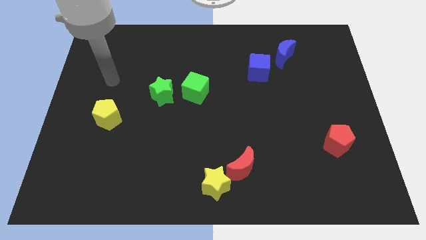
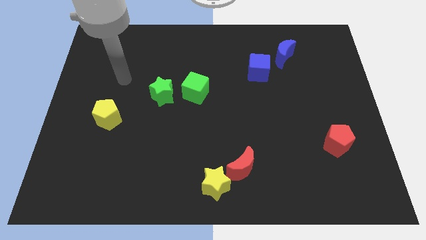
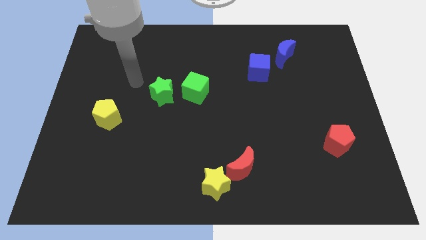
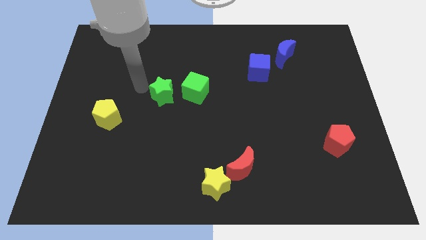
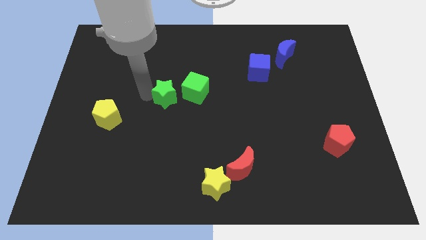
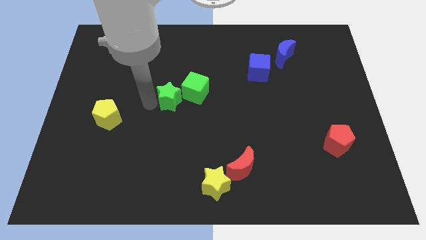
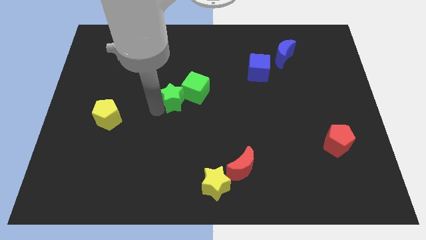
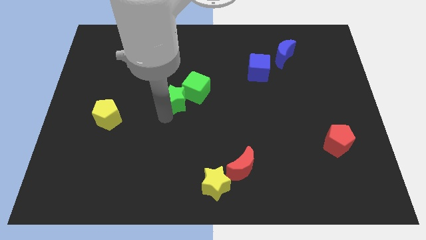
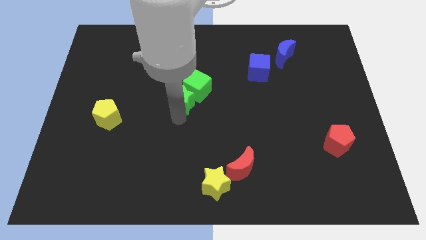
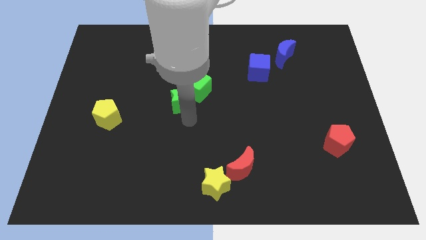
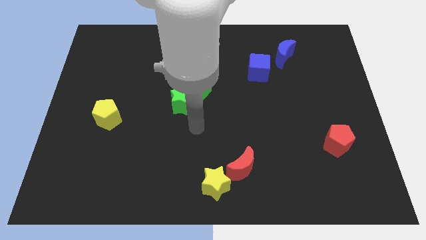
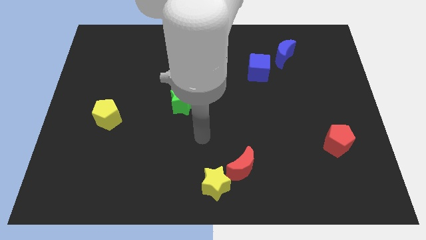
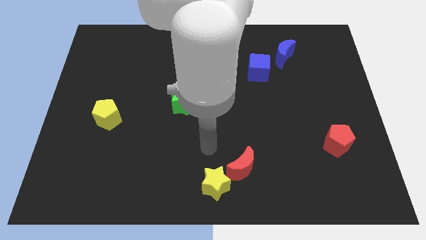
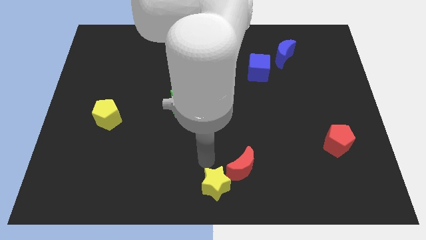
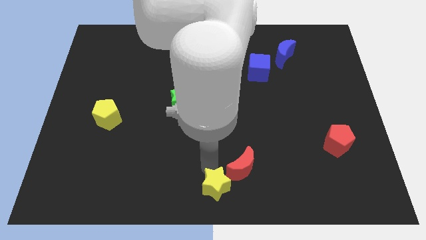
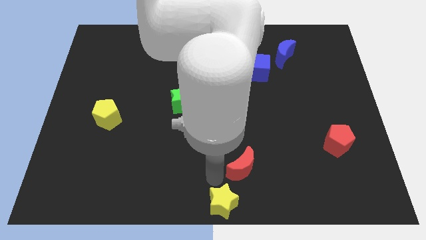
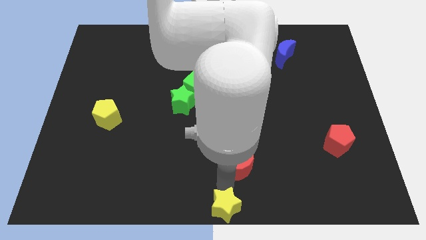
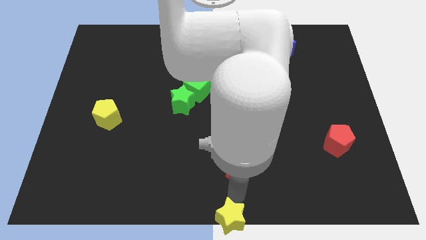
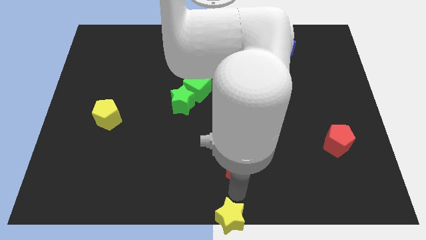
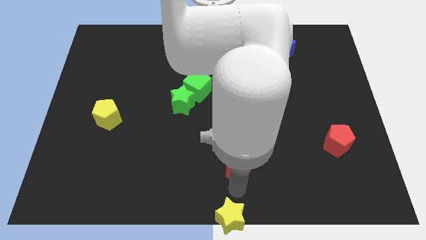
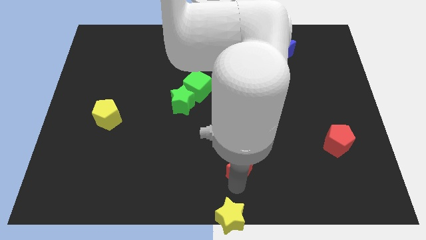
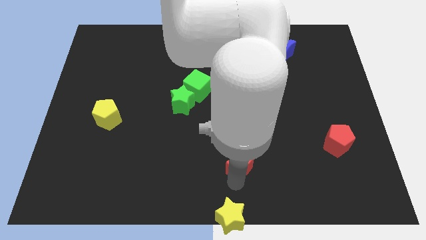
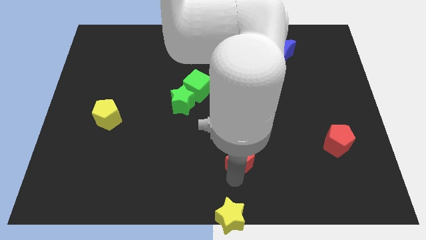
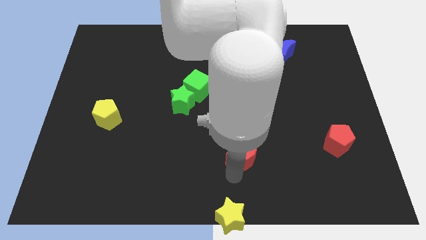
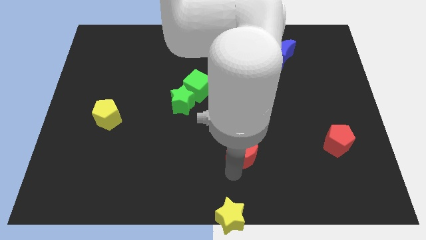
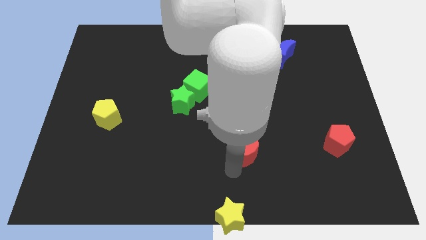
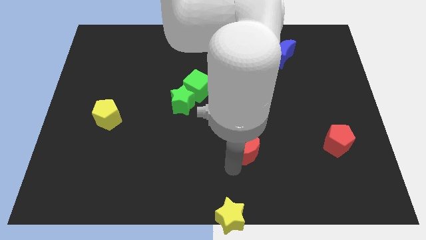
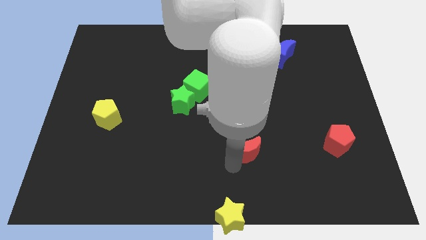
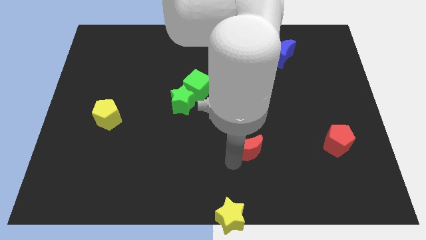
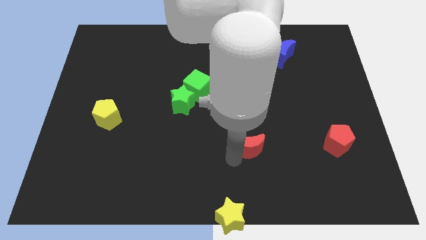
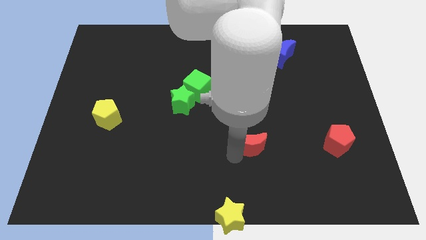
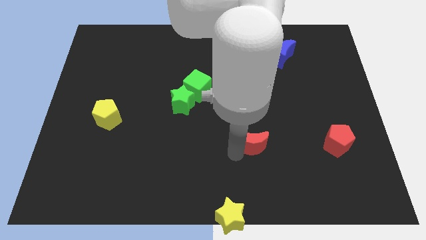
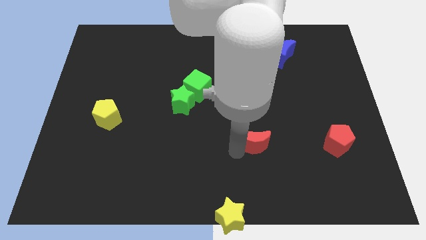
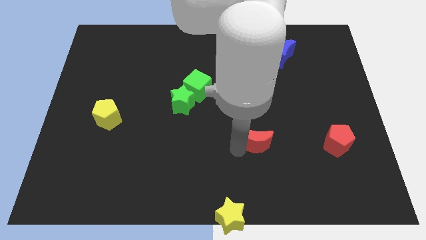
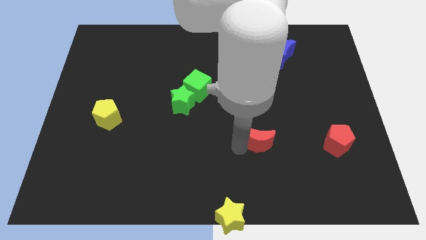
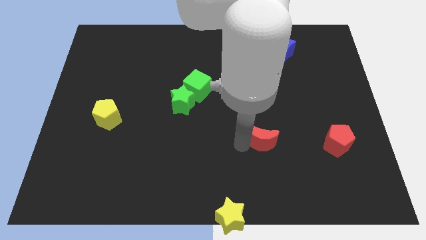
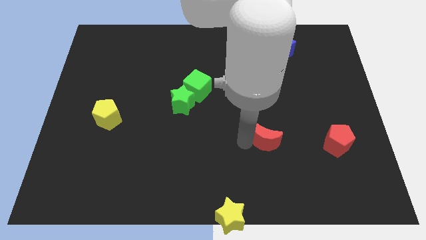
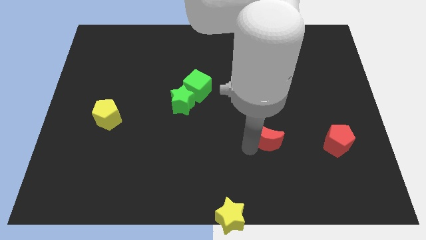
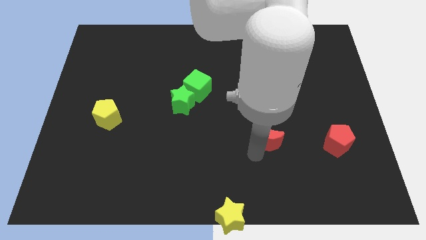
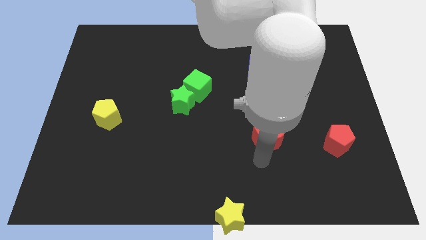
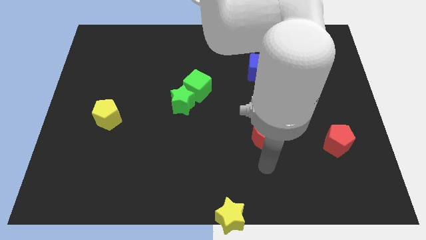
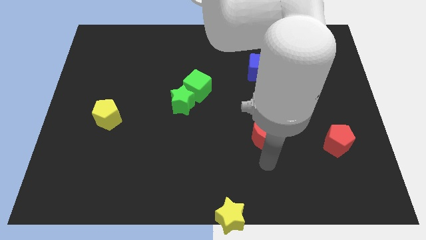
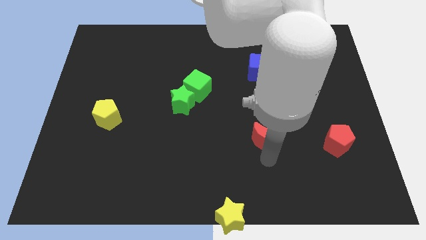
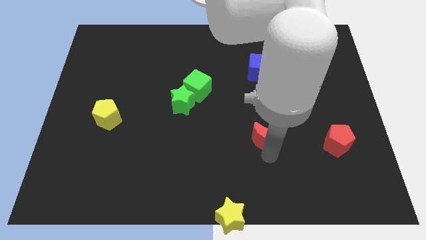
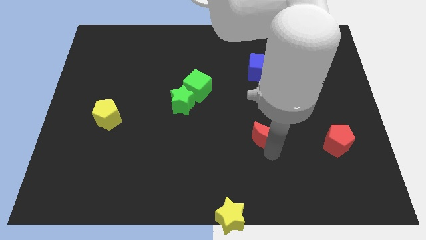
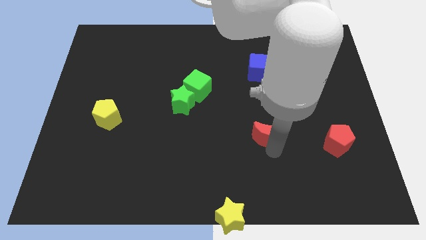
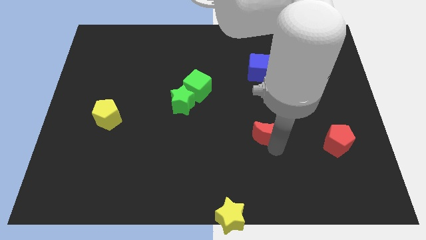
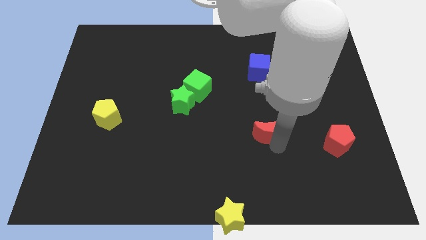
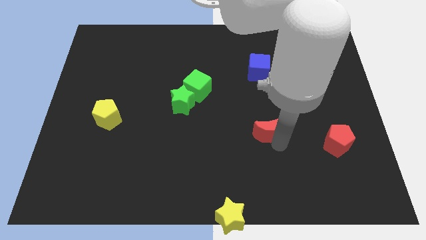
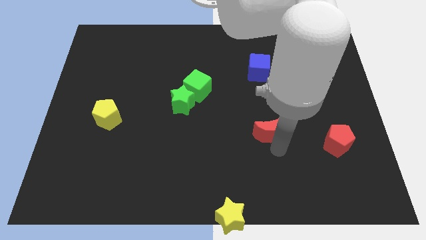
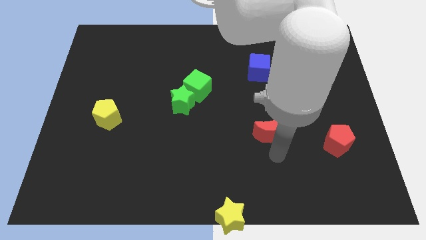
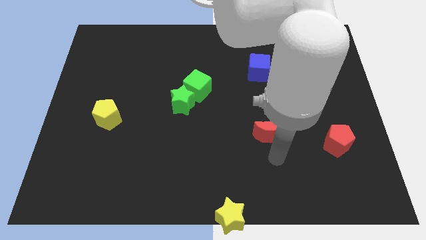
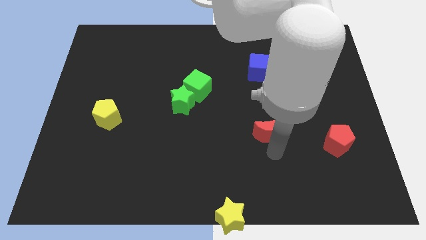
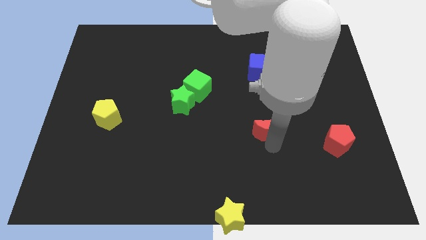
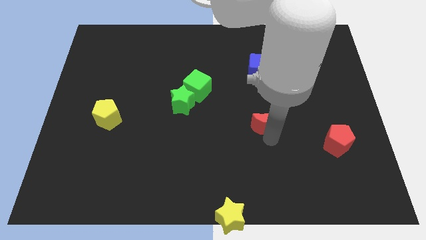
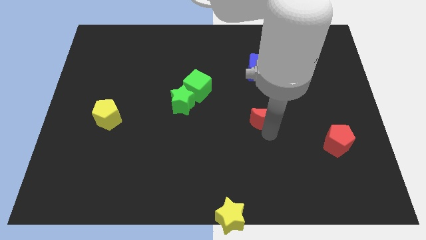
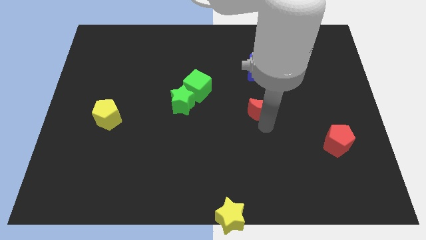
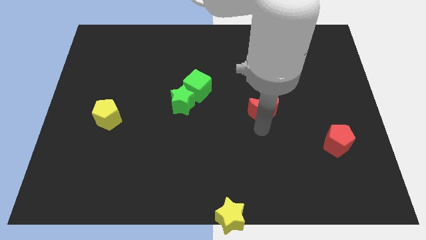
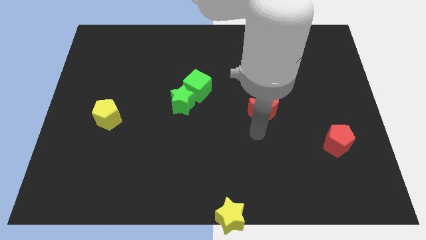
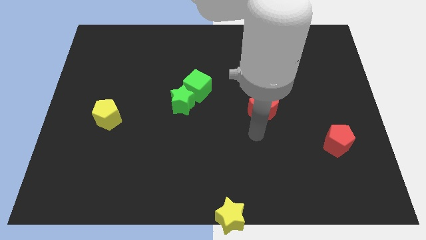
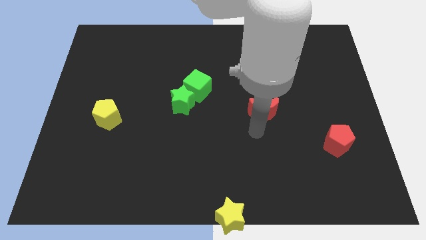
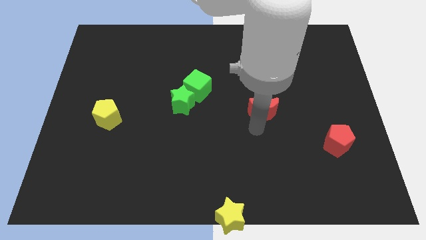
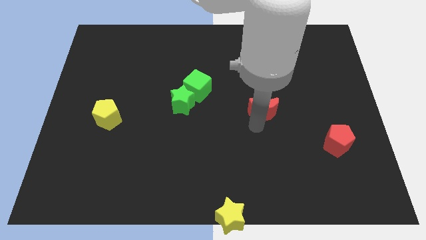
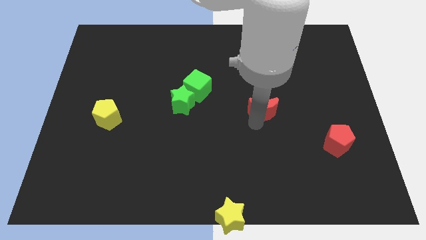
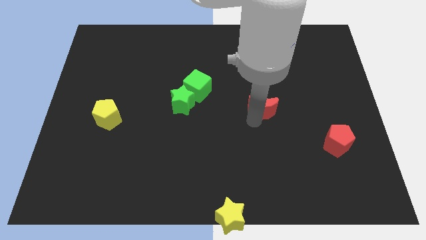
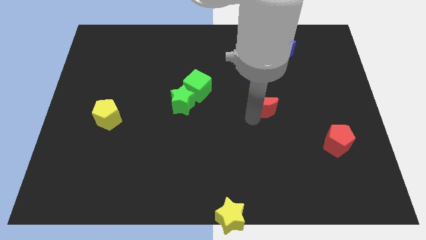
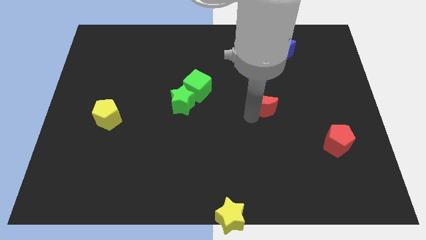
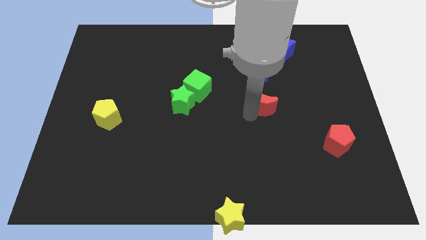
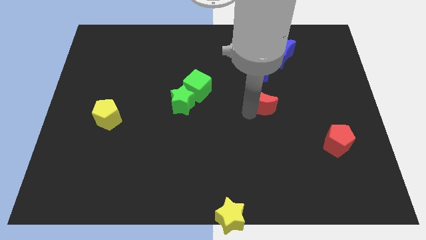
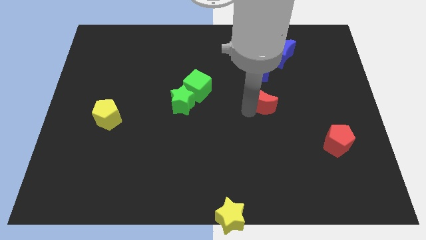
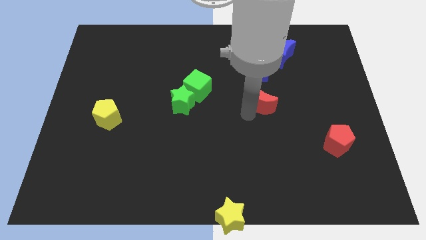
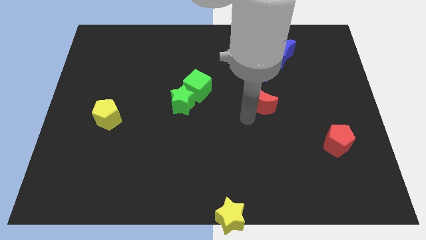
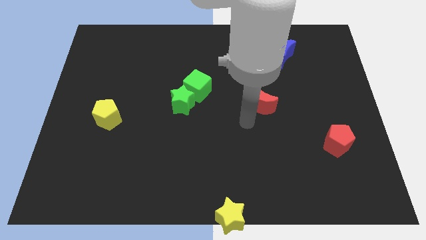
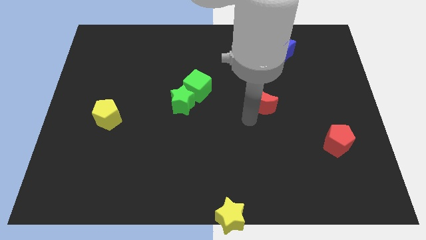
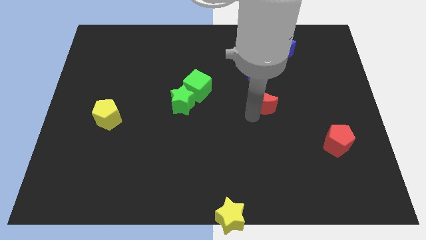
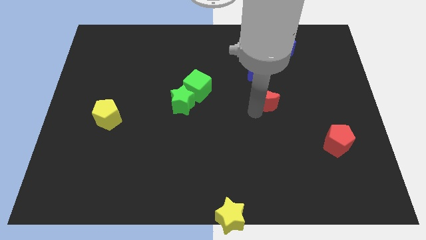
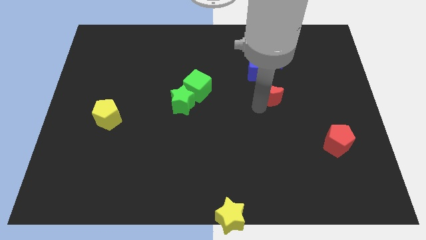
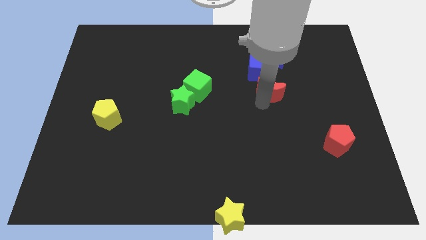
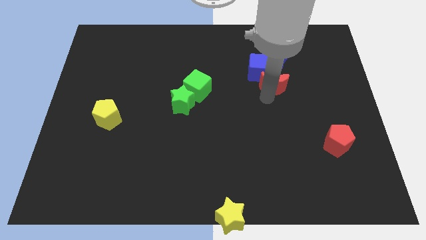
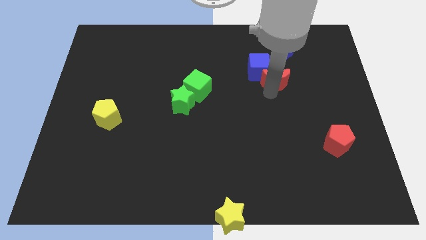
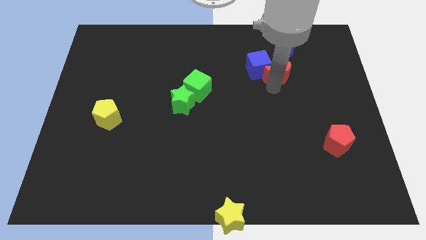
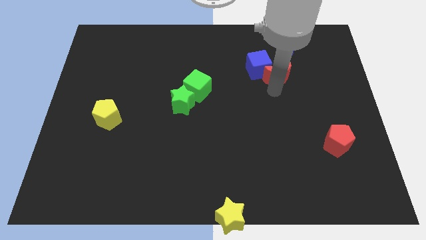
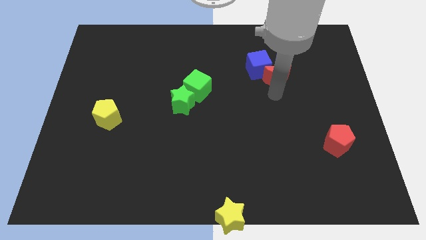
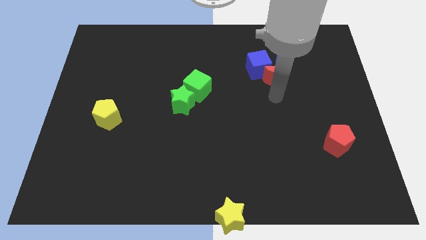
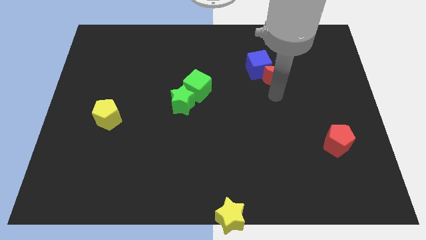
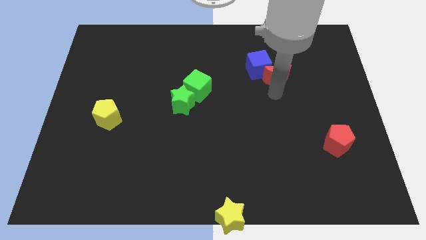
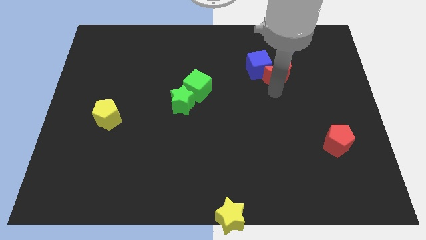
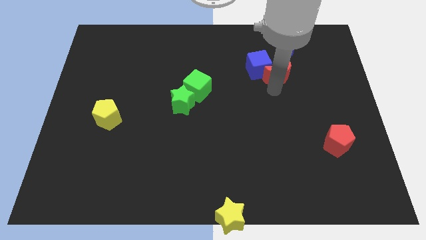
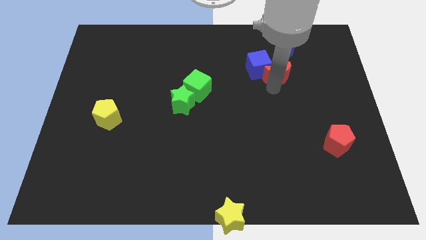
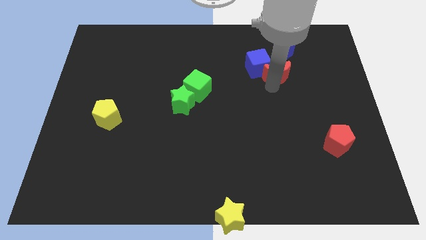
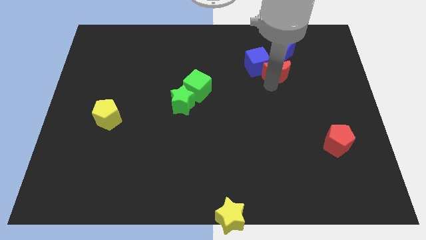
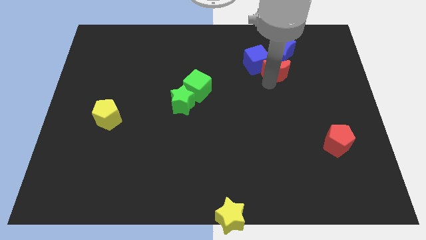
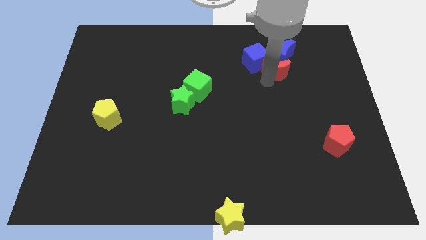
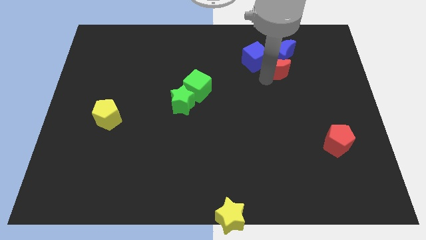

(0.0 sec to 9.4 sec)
move the red moon to the blue moon
